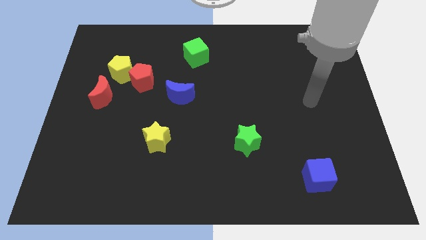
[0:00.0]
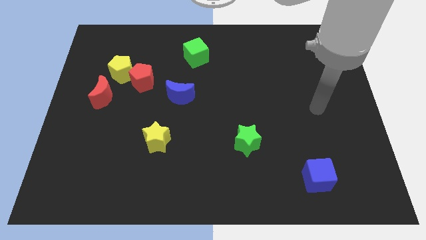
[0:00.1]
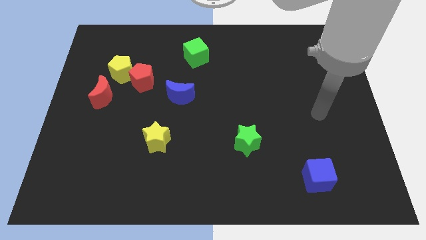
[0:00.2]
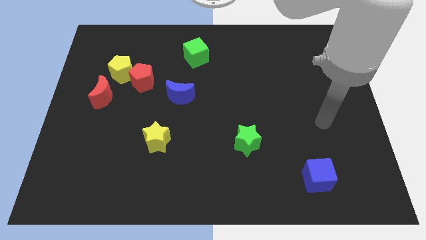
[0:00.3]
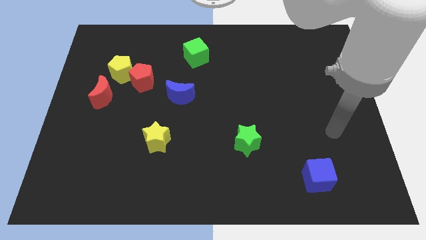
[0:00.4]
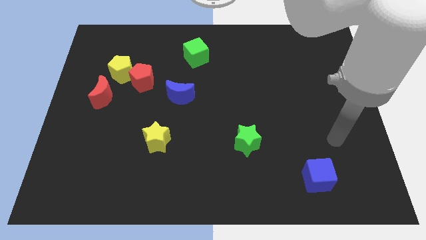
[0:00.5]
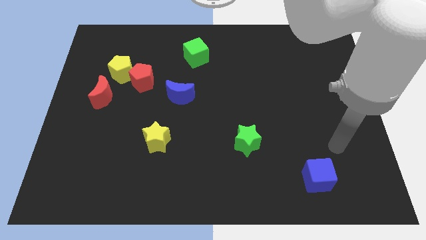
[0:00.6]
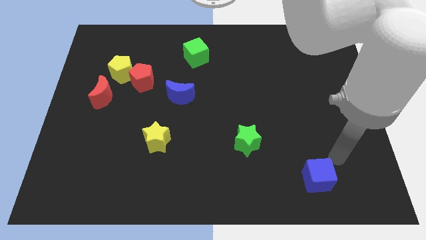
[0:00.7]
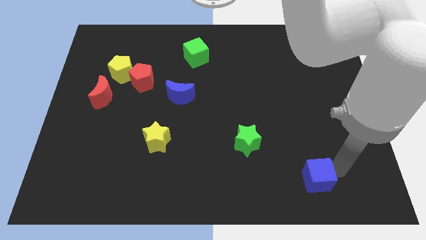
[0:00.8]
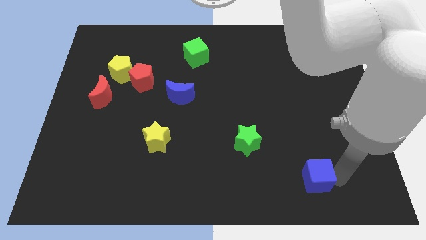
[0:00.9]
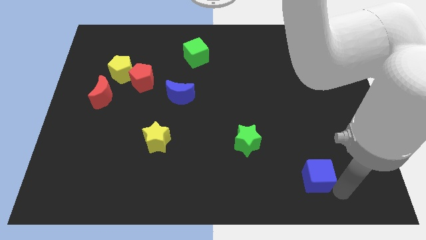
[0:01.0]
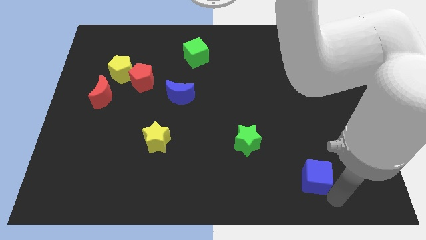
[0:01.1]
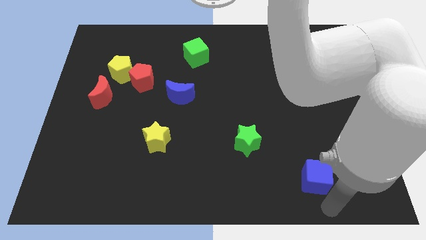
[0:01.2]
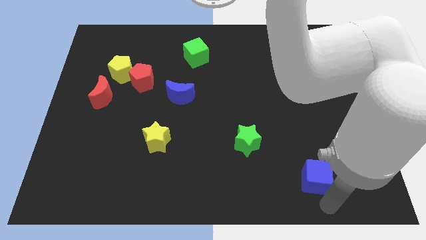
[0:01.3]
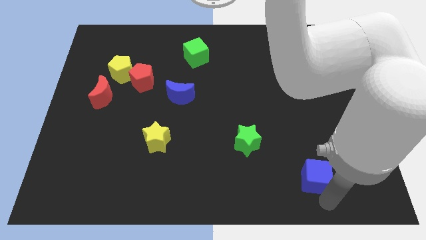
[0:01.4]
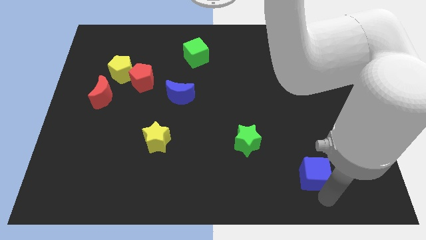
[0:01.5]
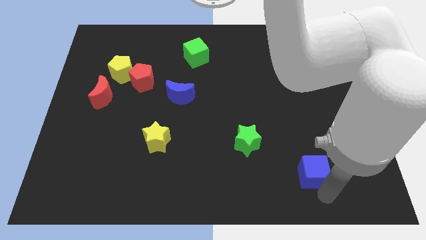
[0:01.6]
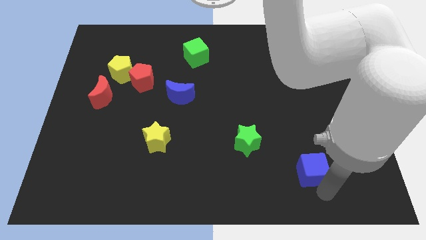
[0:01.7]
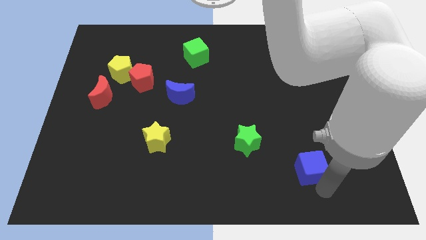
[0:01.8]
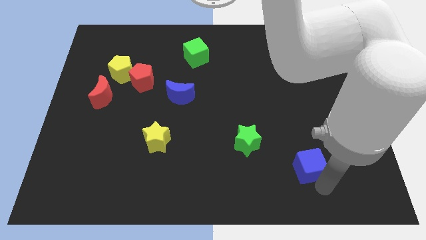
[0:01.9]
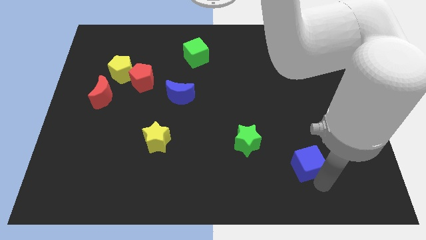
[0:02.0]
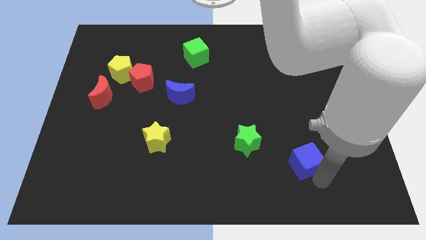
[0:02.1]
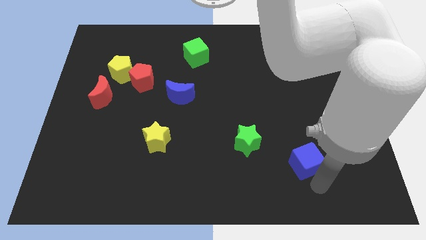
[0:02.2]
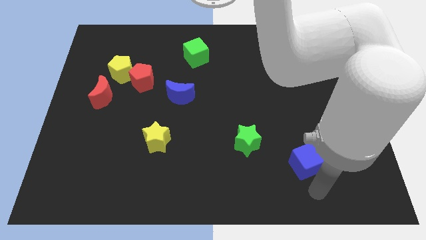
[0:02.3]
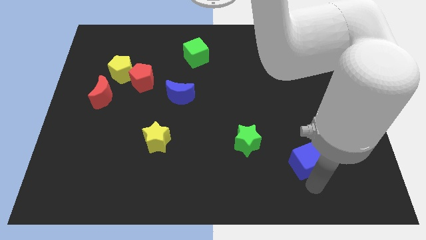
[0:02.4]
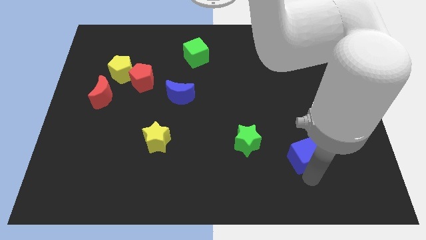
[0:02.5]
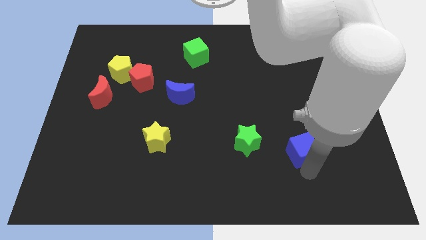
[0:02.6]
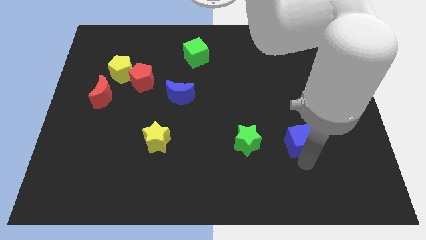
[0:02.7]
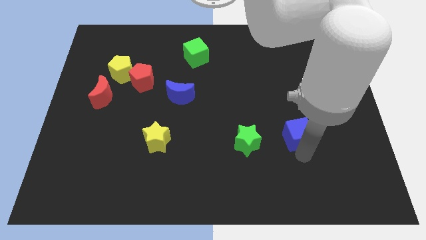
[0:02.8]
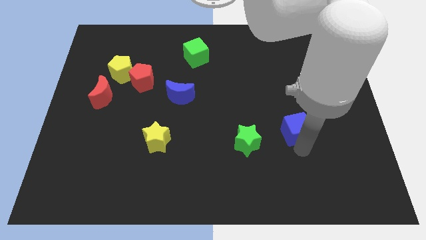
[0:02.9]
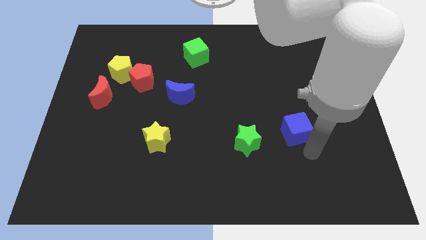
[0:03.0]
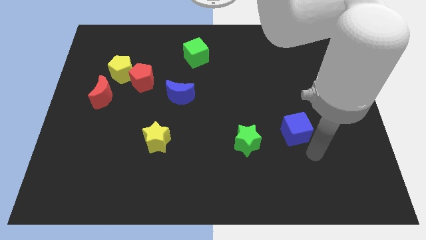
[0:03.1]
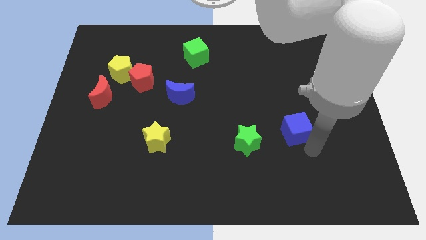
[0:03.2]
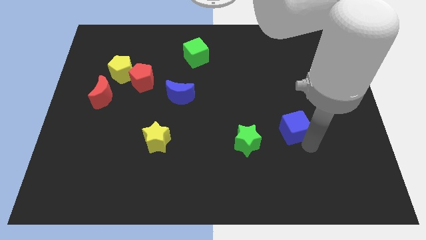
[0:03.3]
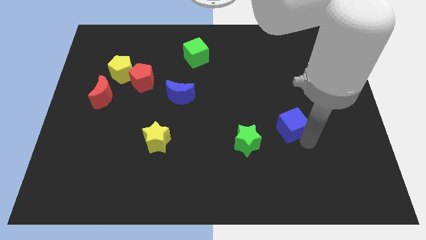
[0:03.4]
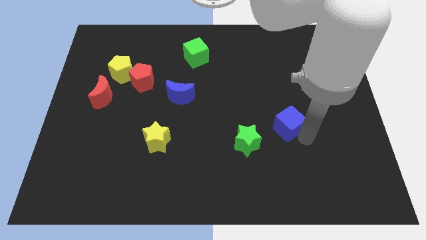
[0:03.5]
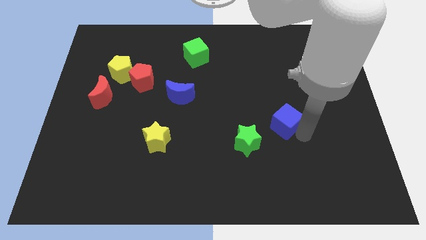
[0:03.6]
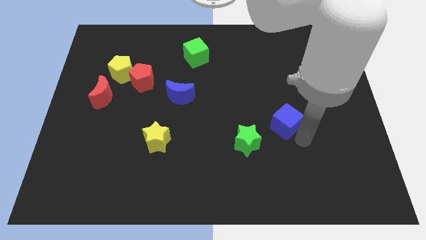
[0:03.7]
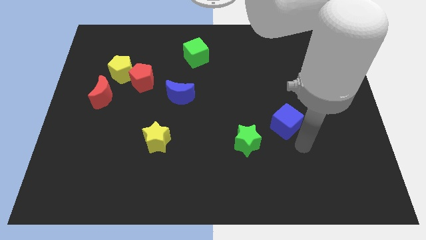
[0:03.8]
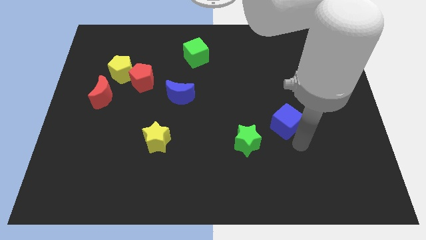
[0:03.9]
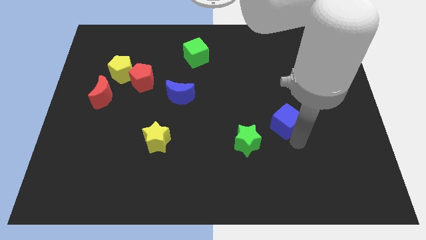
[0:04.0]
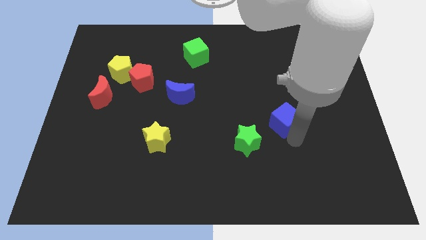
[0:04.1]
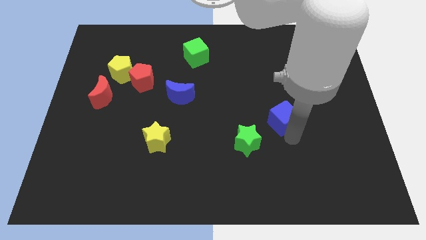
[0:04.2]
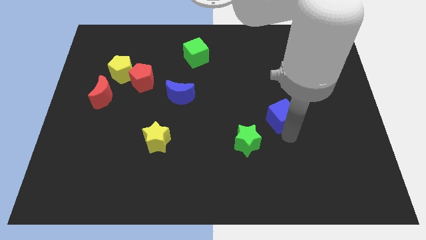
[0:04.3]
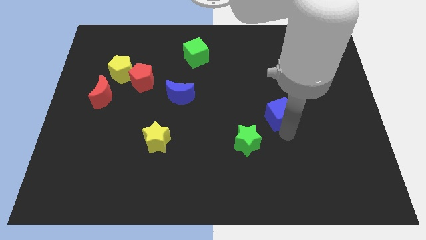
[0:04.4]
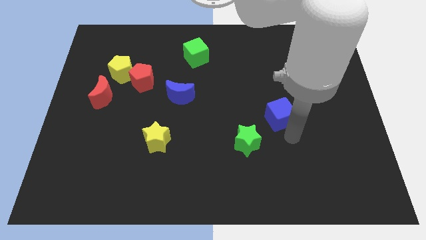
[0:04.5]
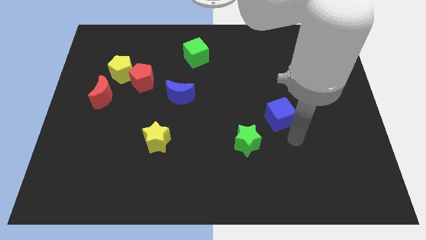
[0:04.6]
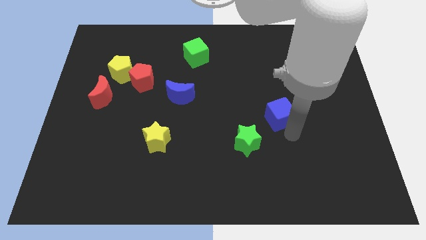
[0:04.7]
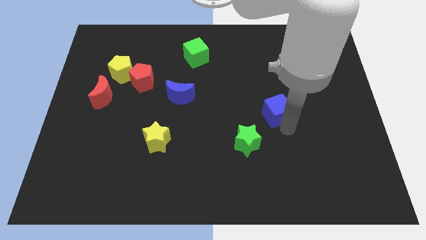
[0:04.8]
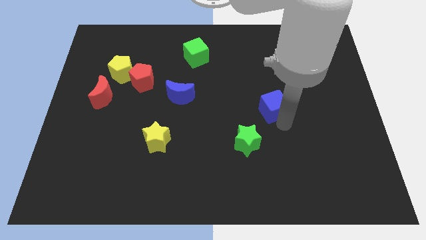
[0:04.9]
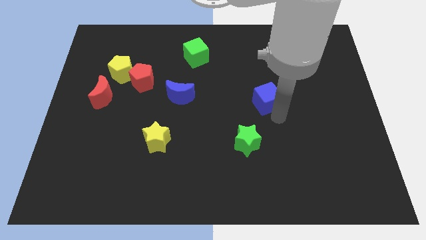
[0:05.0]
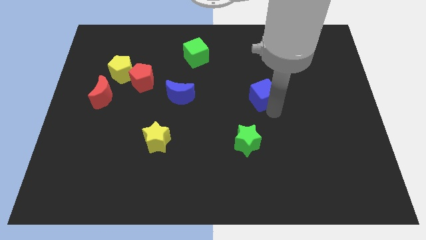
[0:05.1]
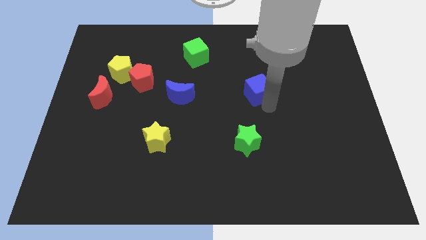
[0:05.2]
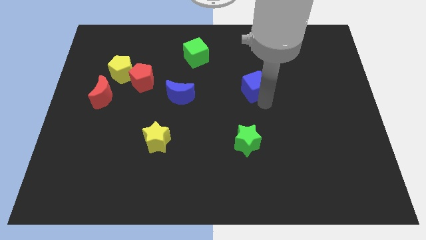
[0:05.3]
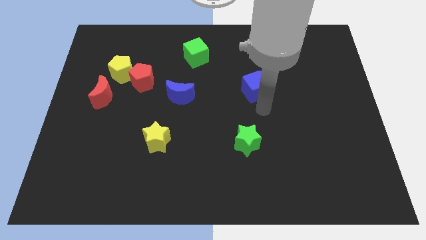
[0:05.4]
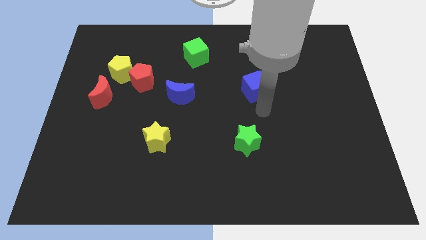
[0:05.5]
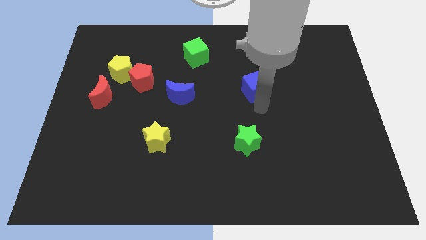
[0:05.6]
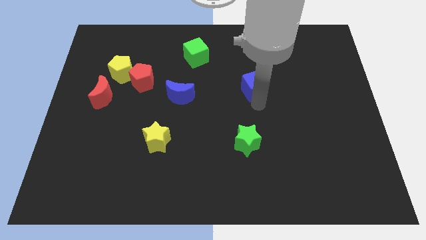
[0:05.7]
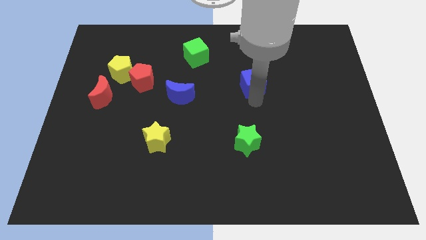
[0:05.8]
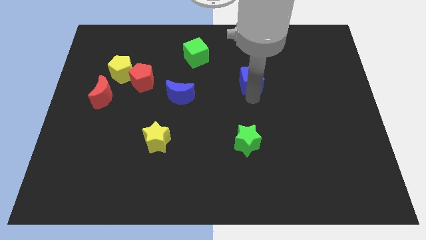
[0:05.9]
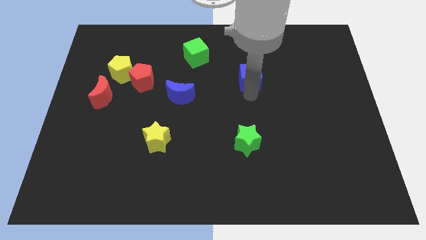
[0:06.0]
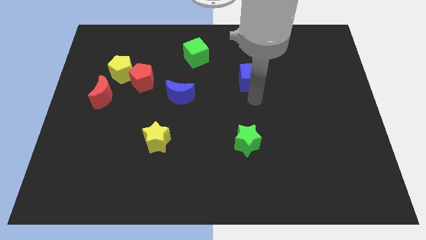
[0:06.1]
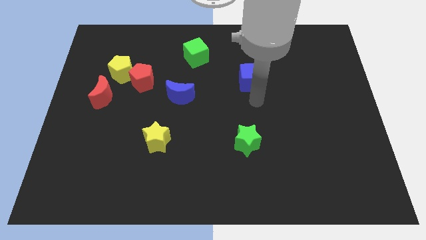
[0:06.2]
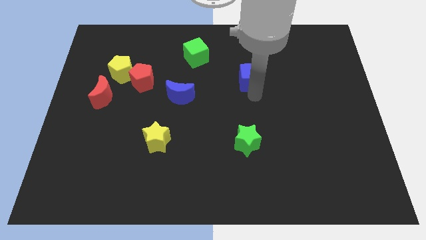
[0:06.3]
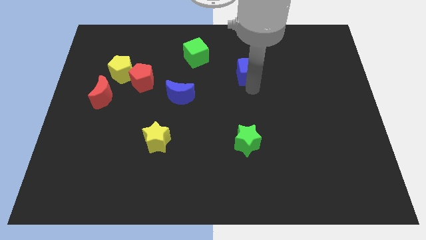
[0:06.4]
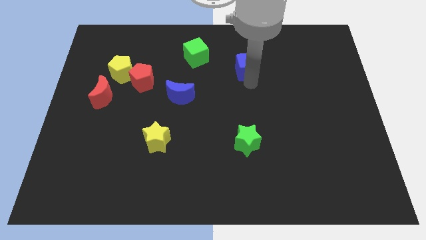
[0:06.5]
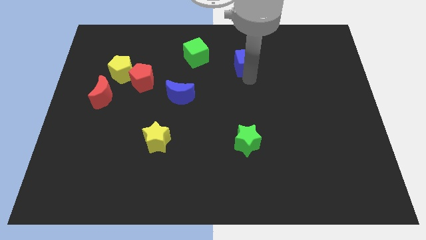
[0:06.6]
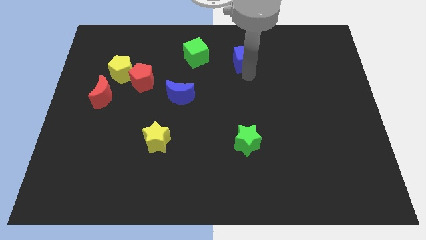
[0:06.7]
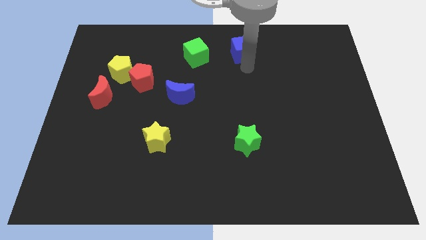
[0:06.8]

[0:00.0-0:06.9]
move the blue cube to the top side
